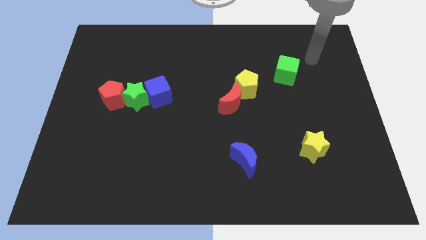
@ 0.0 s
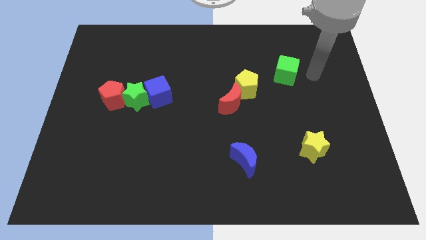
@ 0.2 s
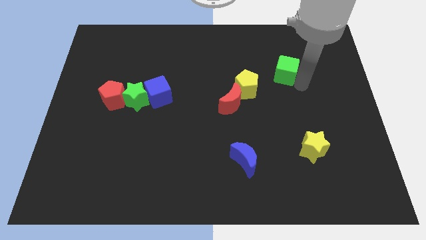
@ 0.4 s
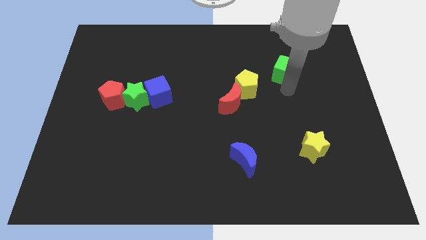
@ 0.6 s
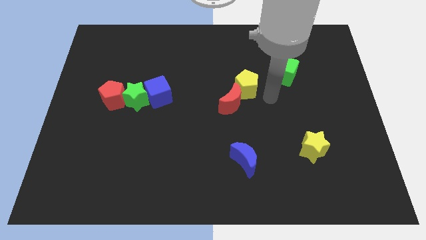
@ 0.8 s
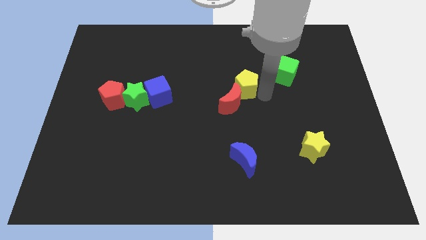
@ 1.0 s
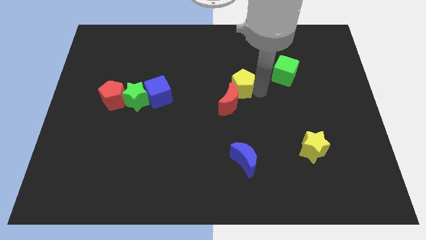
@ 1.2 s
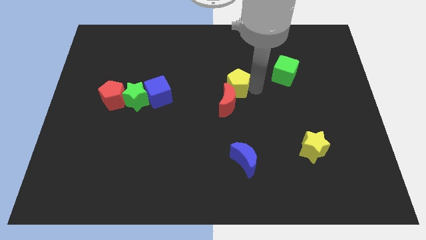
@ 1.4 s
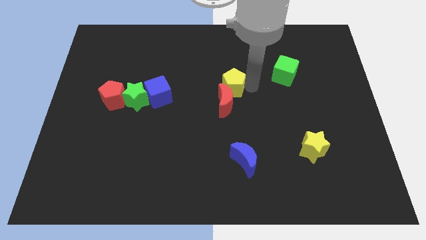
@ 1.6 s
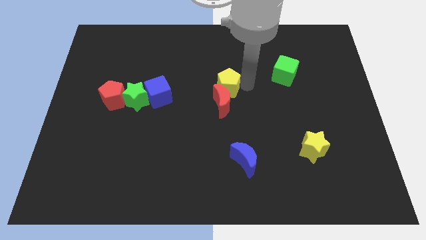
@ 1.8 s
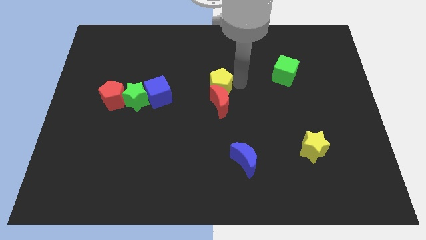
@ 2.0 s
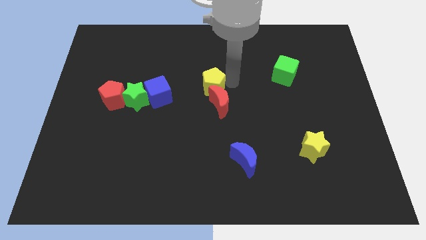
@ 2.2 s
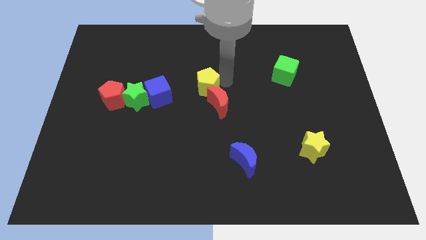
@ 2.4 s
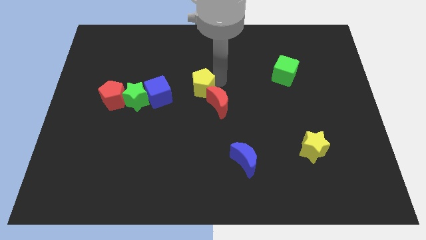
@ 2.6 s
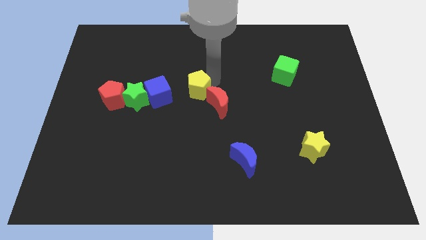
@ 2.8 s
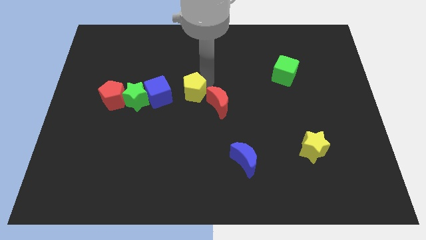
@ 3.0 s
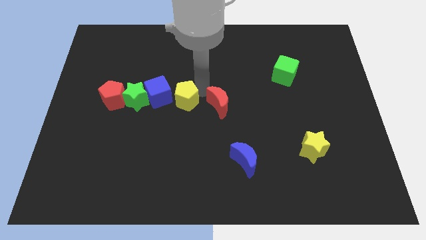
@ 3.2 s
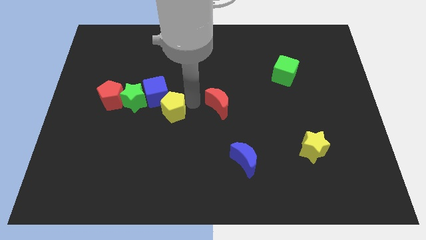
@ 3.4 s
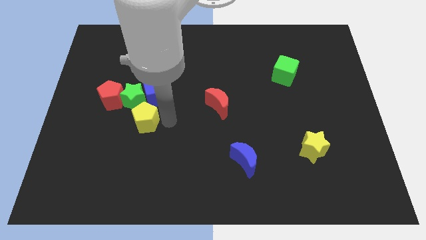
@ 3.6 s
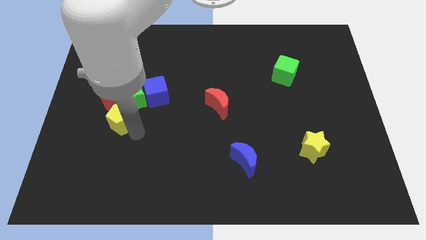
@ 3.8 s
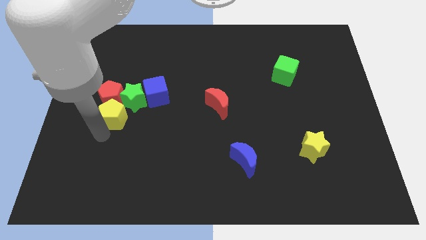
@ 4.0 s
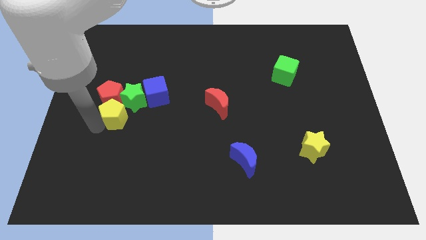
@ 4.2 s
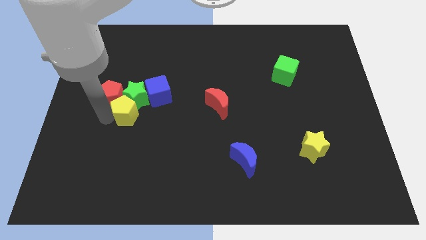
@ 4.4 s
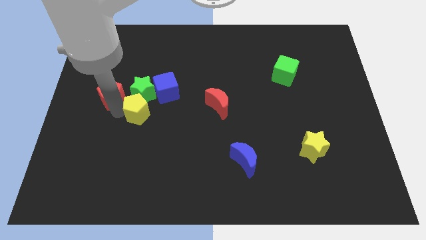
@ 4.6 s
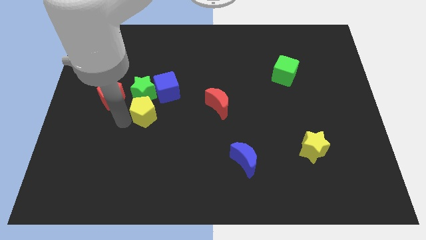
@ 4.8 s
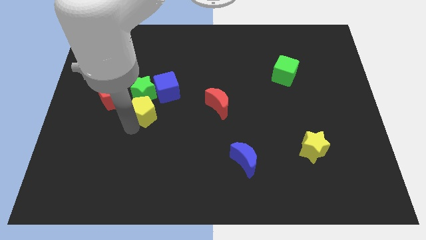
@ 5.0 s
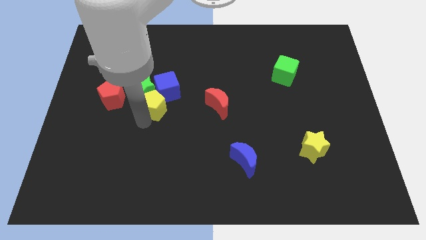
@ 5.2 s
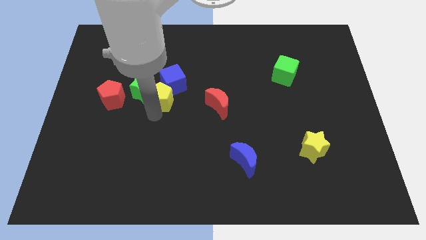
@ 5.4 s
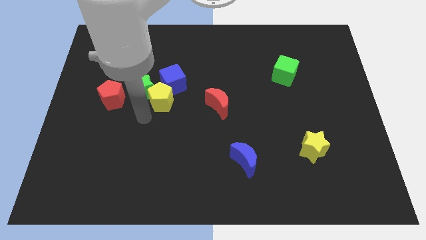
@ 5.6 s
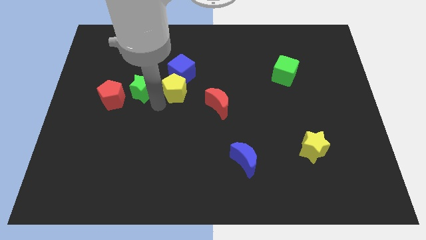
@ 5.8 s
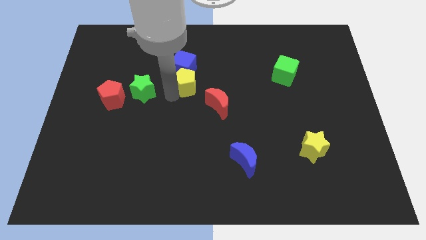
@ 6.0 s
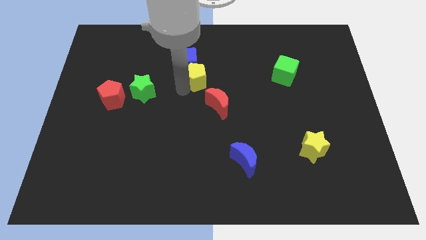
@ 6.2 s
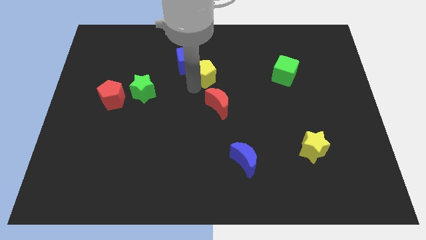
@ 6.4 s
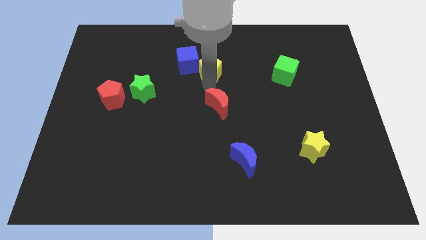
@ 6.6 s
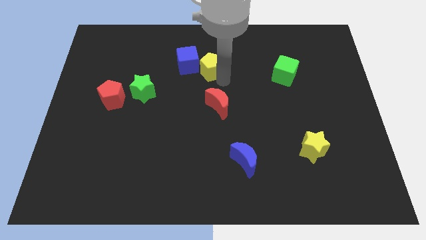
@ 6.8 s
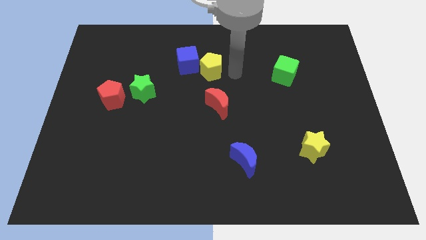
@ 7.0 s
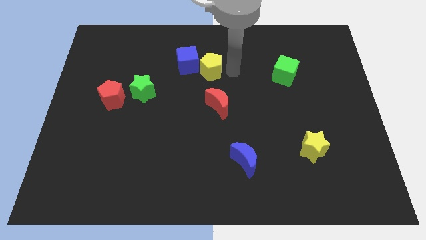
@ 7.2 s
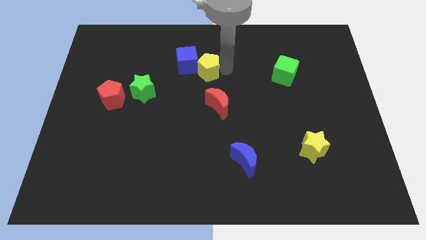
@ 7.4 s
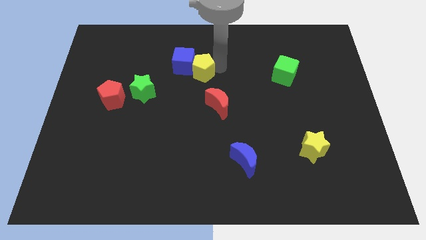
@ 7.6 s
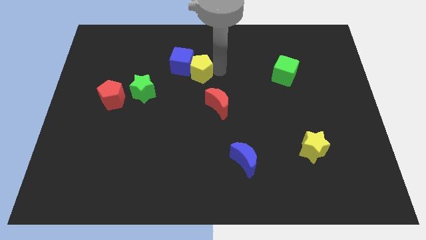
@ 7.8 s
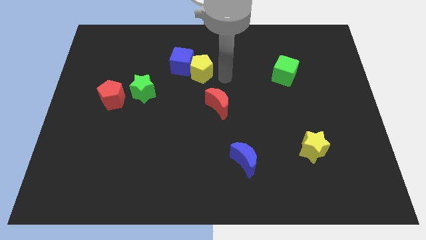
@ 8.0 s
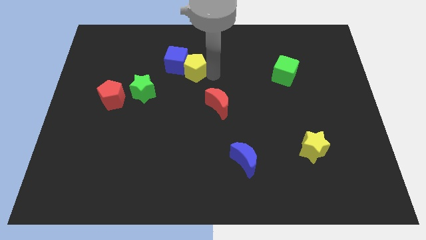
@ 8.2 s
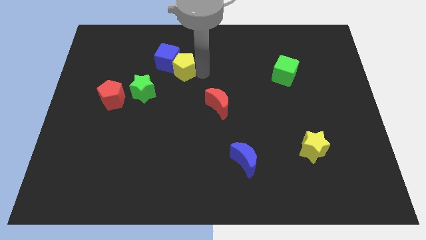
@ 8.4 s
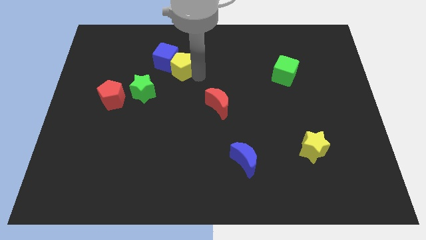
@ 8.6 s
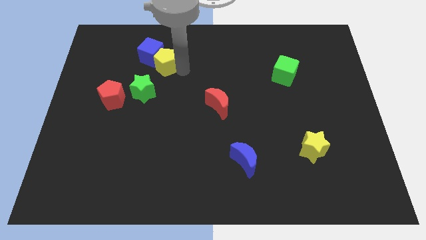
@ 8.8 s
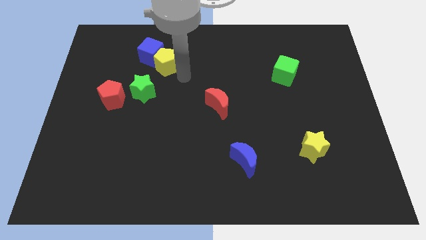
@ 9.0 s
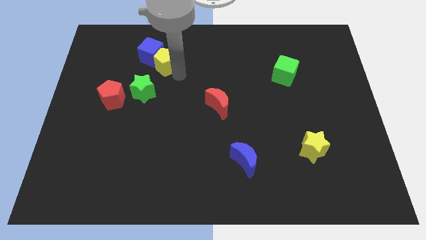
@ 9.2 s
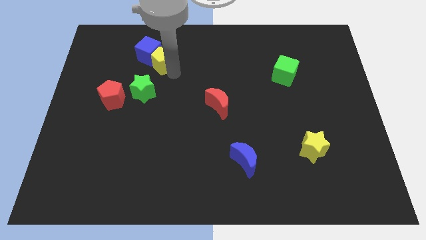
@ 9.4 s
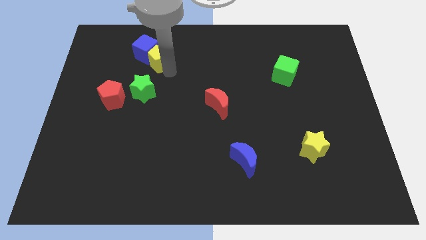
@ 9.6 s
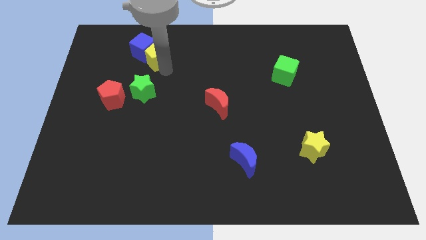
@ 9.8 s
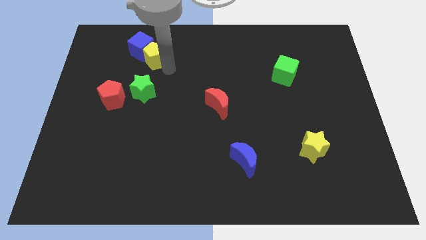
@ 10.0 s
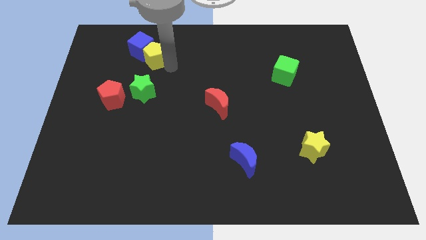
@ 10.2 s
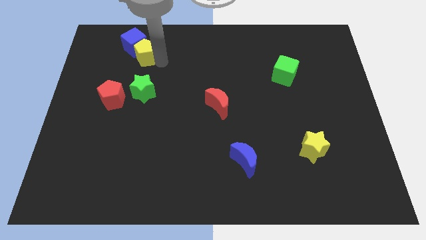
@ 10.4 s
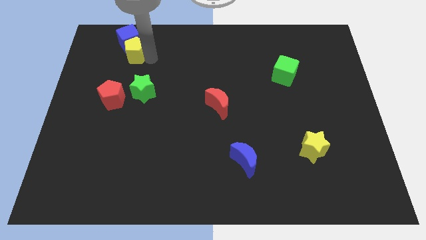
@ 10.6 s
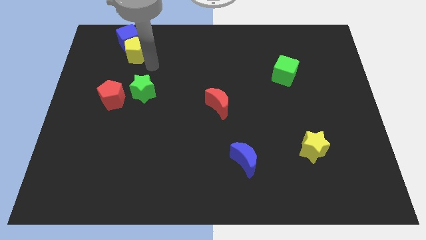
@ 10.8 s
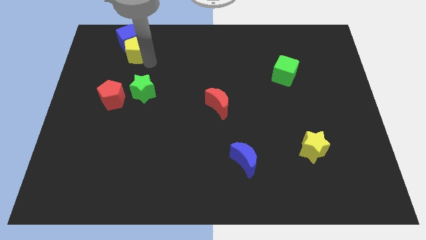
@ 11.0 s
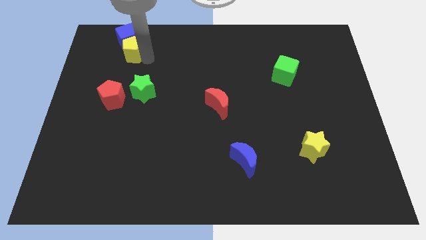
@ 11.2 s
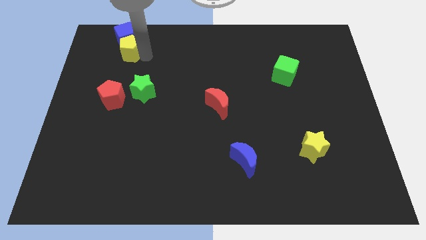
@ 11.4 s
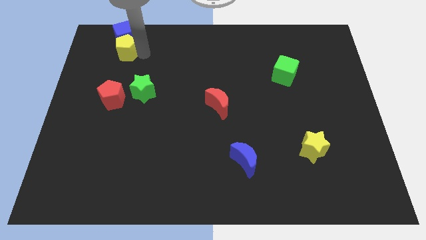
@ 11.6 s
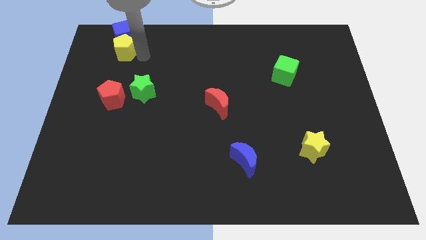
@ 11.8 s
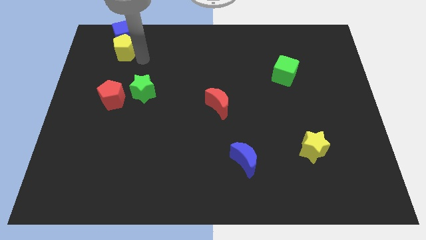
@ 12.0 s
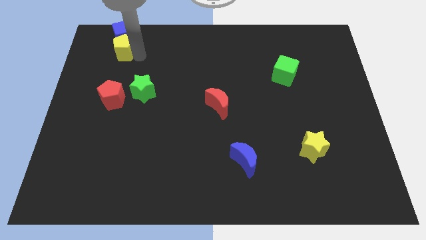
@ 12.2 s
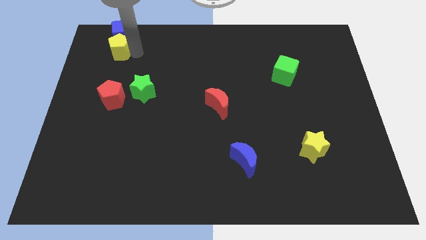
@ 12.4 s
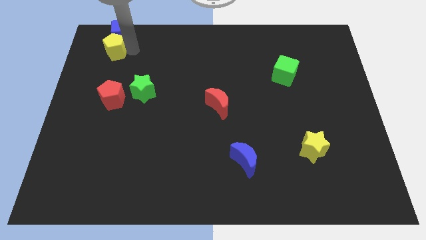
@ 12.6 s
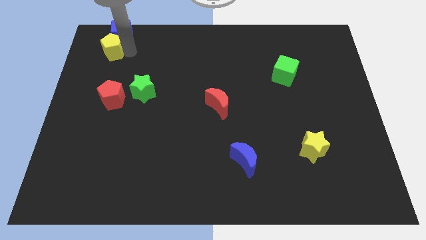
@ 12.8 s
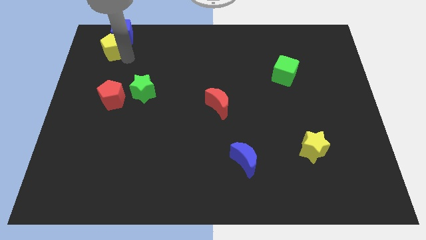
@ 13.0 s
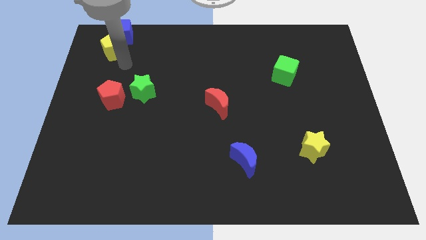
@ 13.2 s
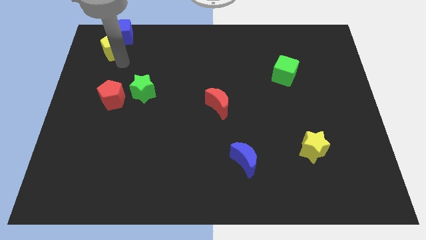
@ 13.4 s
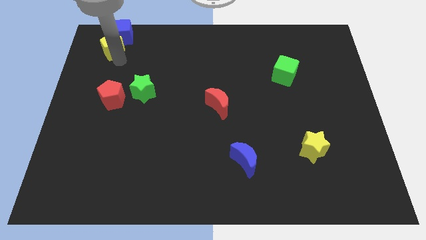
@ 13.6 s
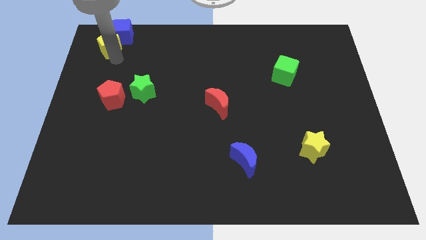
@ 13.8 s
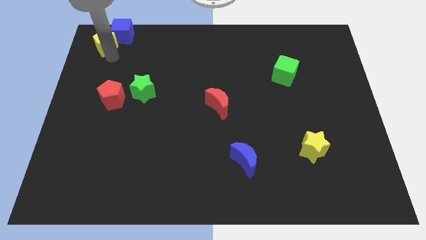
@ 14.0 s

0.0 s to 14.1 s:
move the yellow pentagon to the top left corner

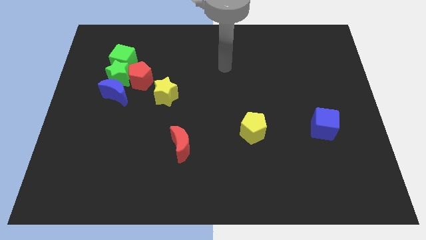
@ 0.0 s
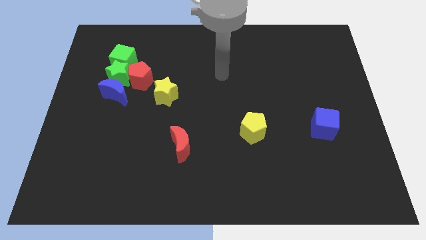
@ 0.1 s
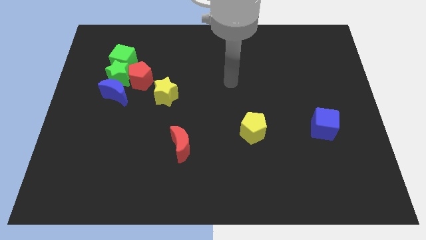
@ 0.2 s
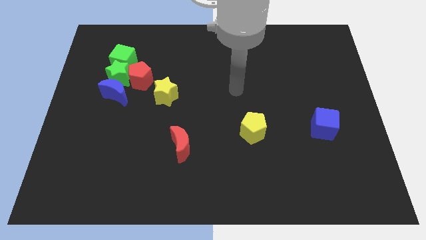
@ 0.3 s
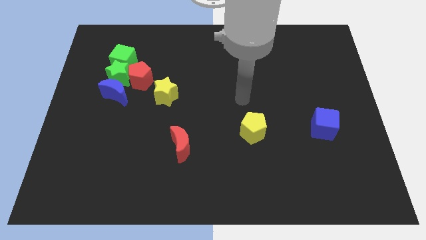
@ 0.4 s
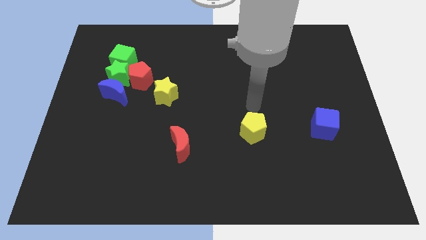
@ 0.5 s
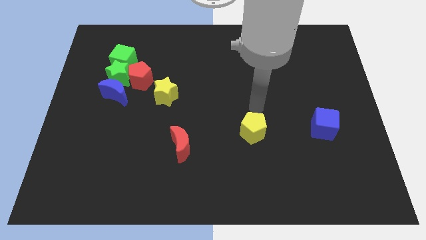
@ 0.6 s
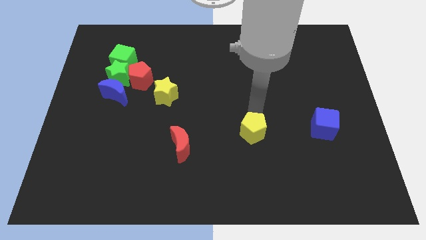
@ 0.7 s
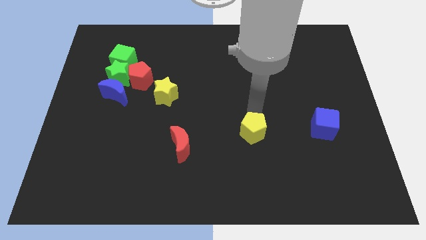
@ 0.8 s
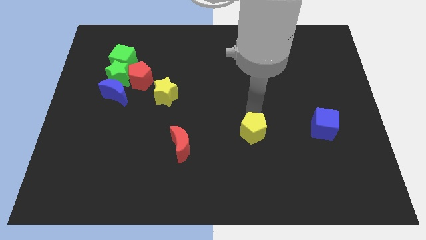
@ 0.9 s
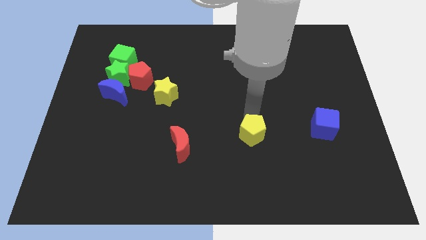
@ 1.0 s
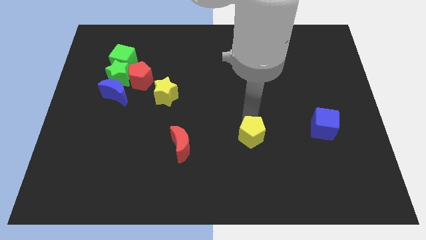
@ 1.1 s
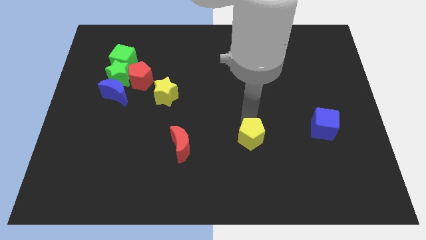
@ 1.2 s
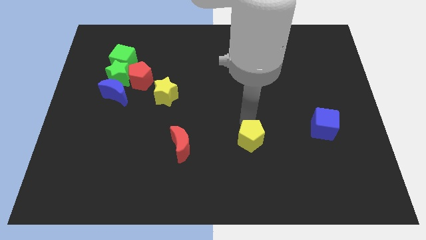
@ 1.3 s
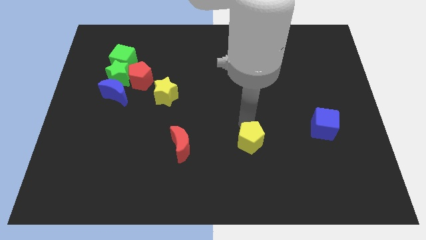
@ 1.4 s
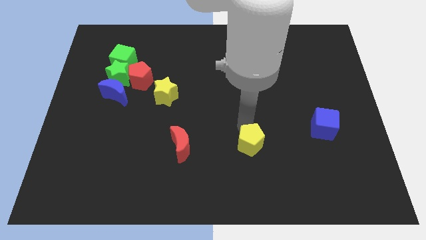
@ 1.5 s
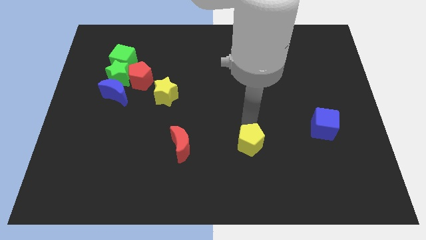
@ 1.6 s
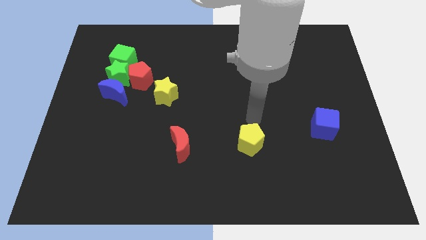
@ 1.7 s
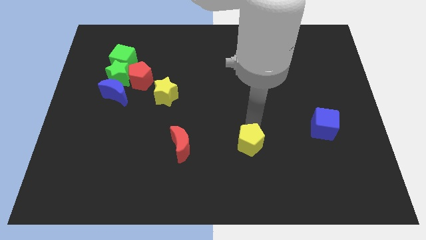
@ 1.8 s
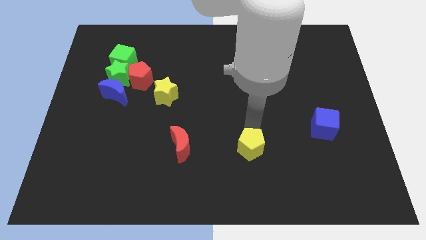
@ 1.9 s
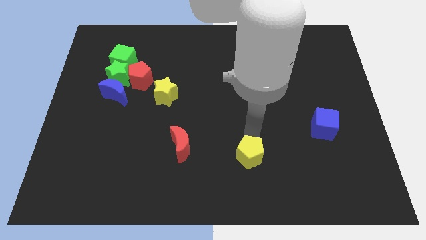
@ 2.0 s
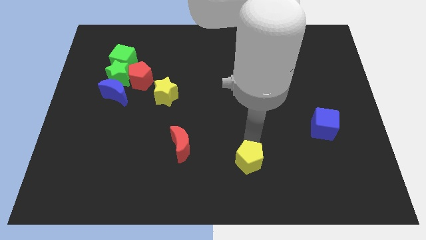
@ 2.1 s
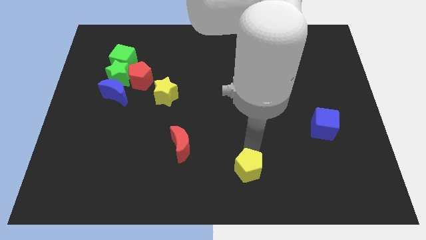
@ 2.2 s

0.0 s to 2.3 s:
put the yellow pentagon to the bottom side
